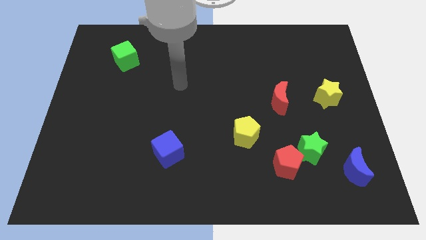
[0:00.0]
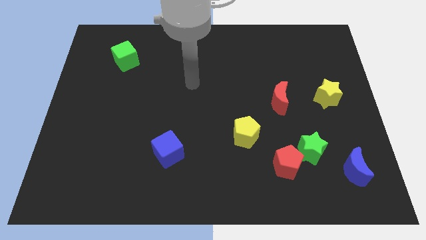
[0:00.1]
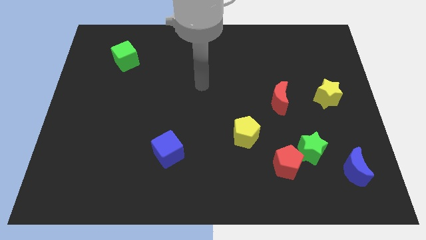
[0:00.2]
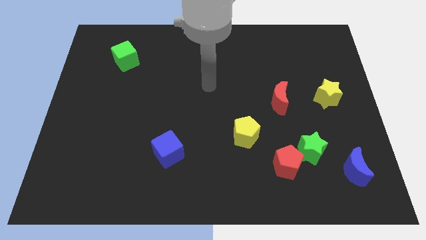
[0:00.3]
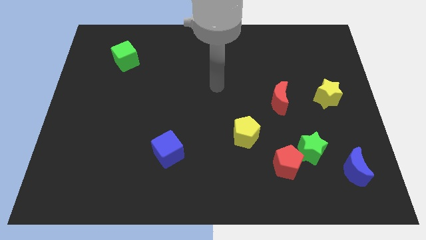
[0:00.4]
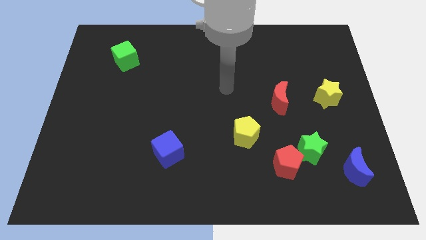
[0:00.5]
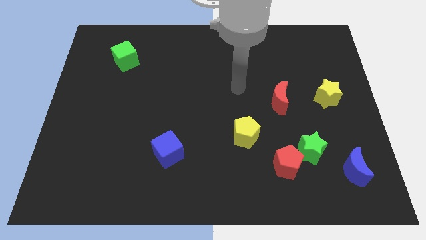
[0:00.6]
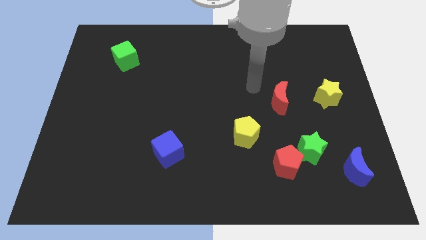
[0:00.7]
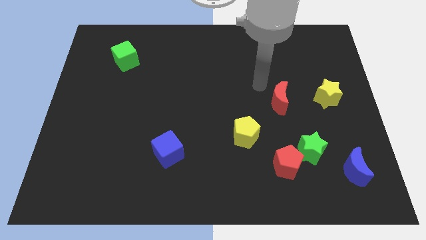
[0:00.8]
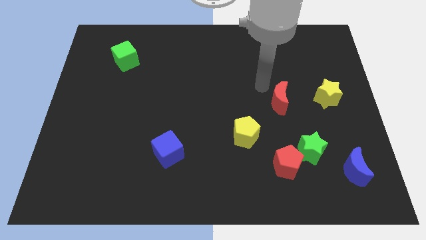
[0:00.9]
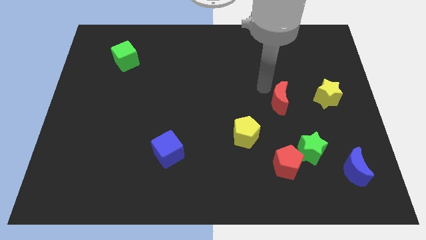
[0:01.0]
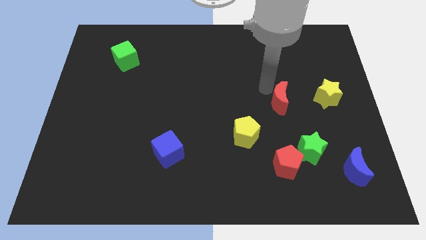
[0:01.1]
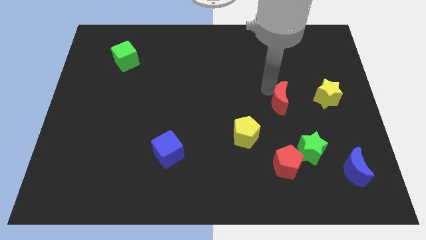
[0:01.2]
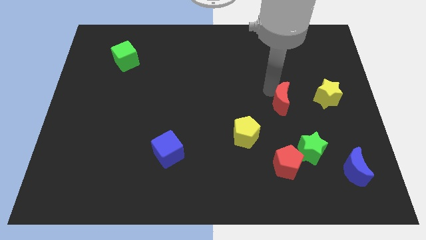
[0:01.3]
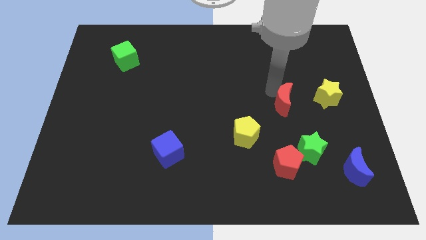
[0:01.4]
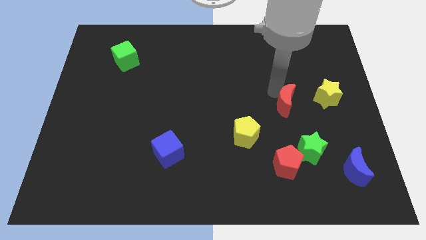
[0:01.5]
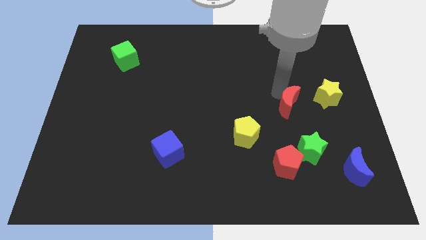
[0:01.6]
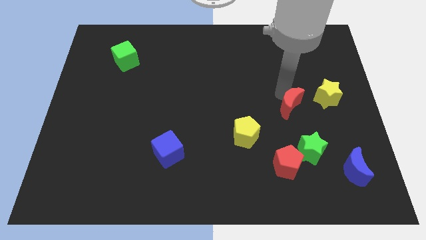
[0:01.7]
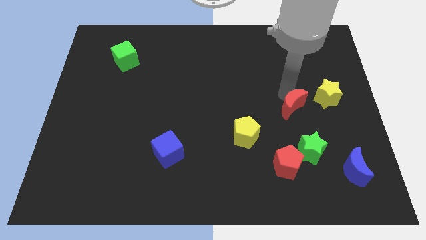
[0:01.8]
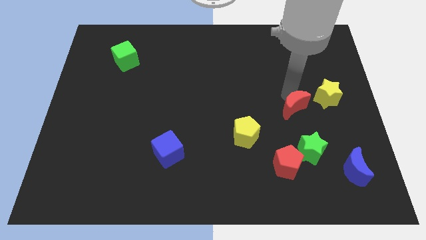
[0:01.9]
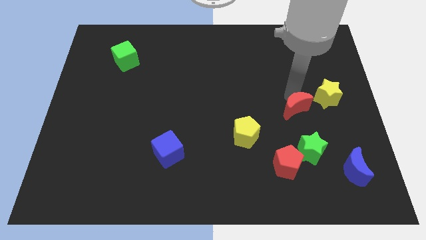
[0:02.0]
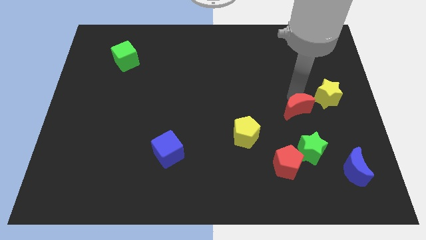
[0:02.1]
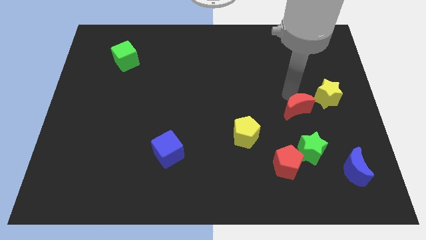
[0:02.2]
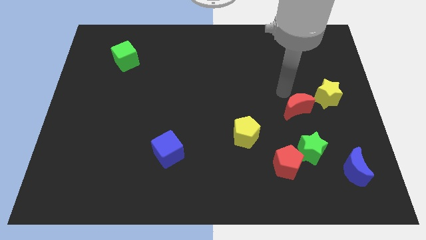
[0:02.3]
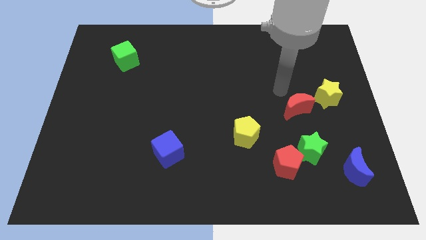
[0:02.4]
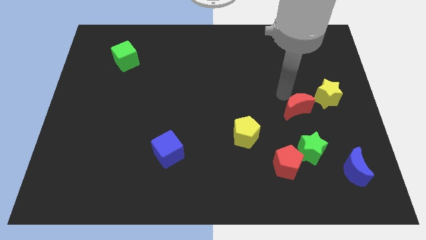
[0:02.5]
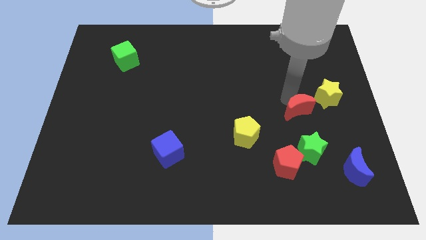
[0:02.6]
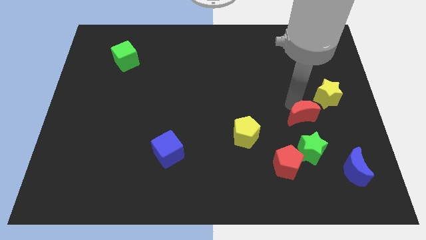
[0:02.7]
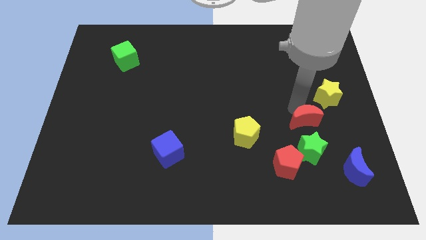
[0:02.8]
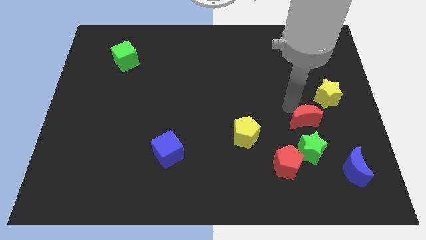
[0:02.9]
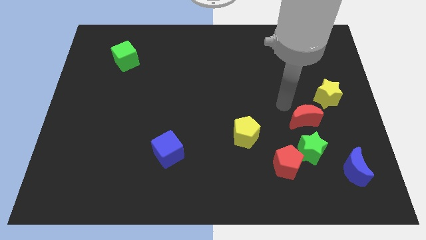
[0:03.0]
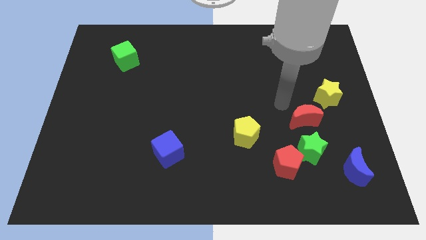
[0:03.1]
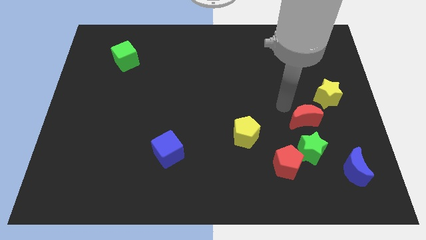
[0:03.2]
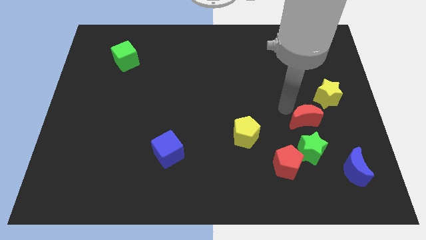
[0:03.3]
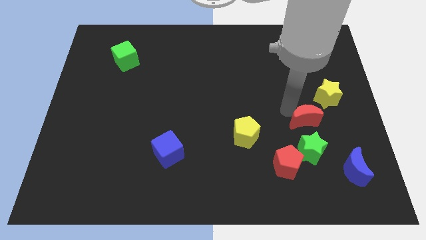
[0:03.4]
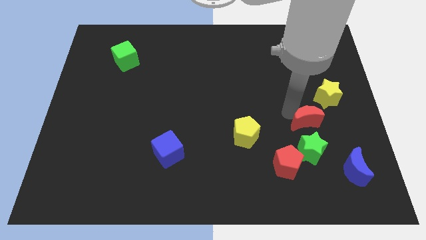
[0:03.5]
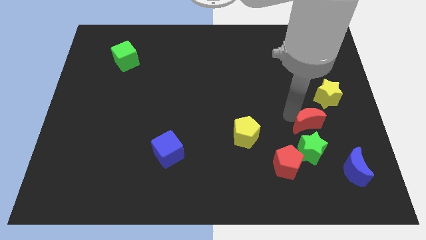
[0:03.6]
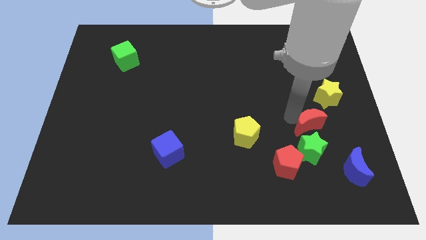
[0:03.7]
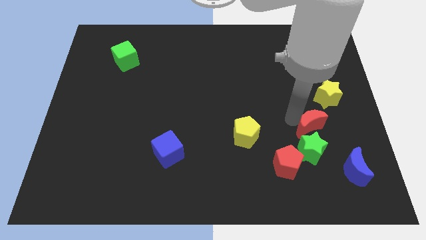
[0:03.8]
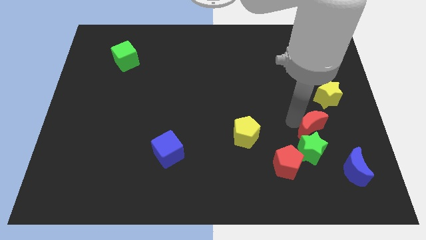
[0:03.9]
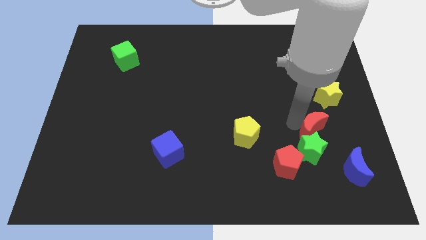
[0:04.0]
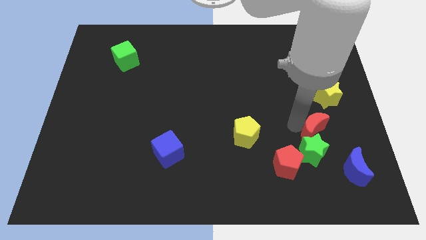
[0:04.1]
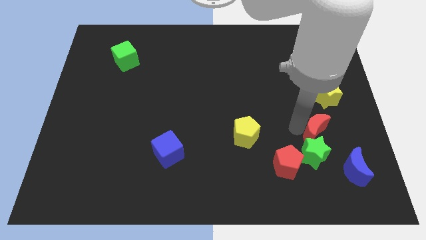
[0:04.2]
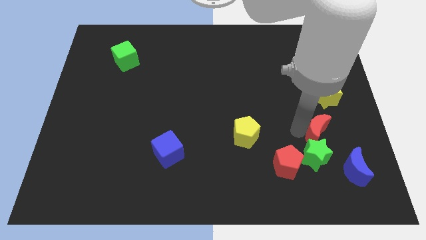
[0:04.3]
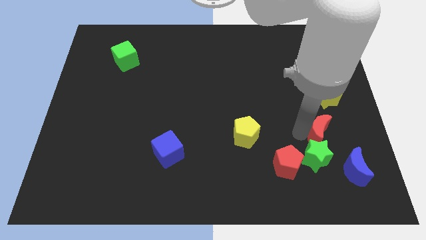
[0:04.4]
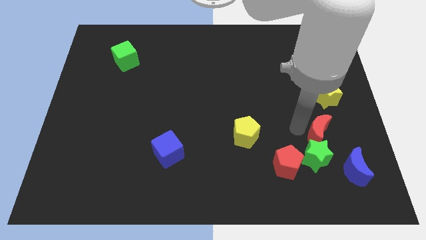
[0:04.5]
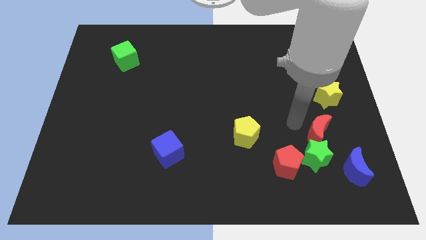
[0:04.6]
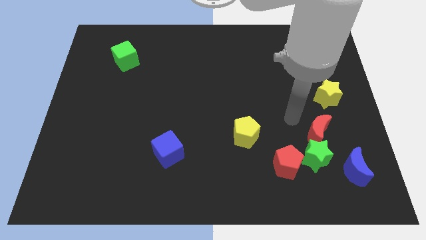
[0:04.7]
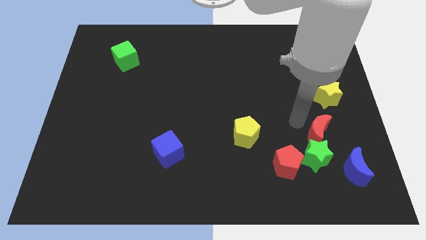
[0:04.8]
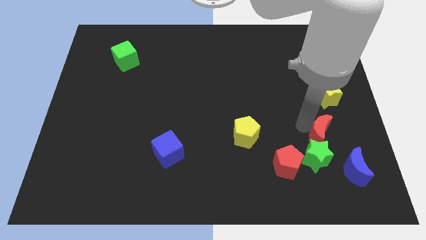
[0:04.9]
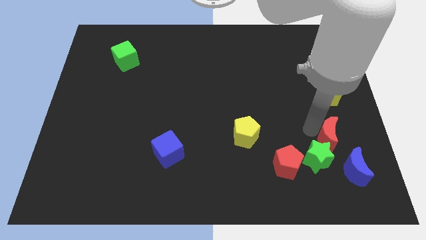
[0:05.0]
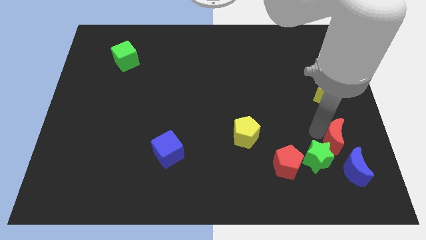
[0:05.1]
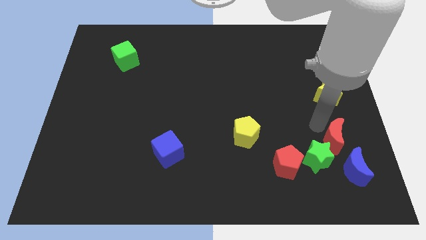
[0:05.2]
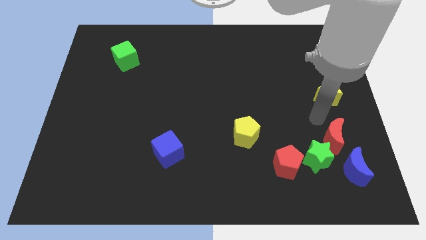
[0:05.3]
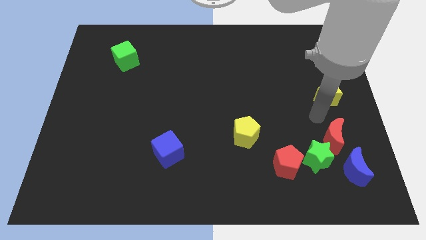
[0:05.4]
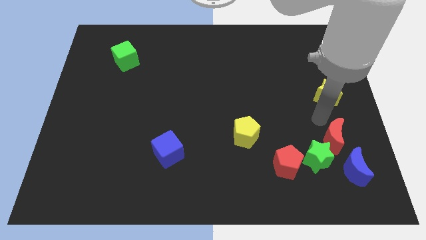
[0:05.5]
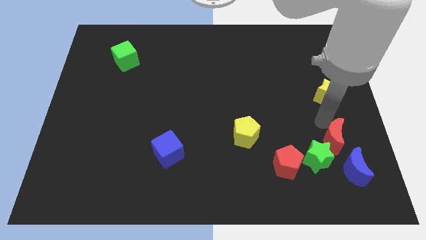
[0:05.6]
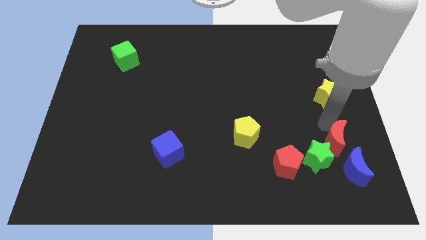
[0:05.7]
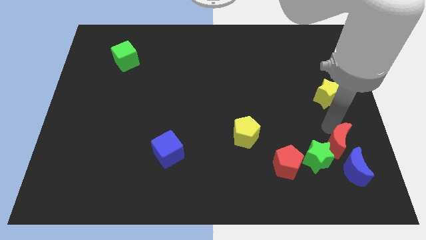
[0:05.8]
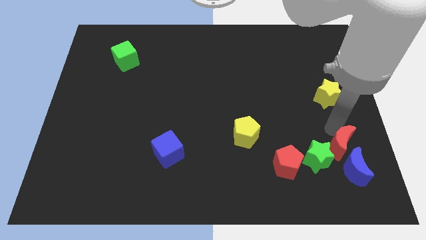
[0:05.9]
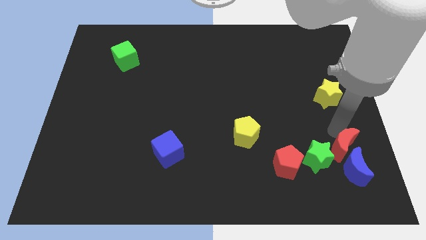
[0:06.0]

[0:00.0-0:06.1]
move the red moon next to the blue moon
